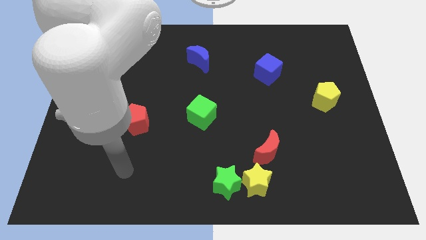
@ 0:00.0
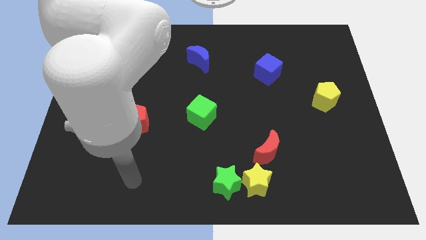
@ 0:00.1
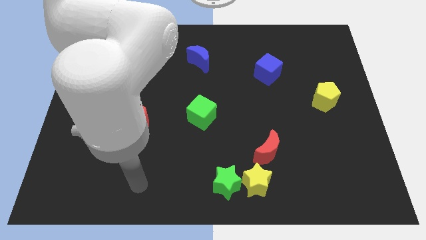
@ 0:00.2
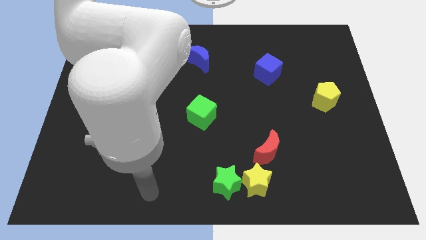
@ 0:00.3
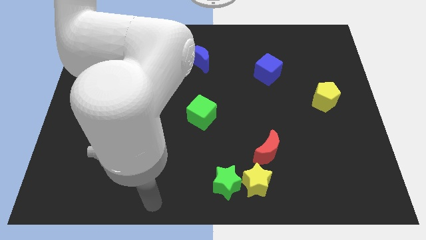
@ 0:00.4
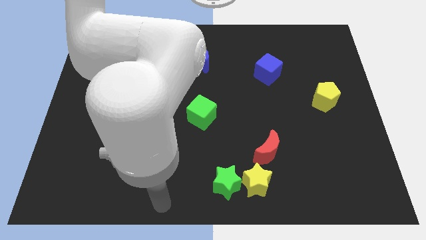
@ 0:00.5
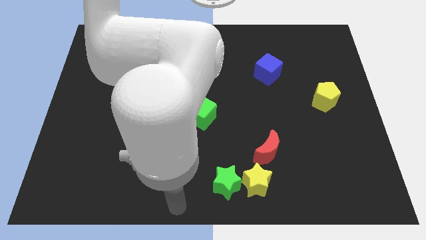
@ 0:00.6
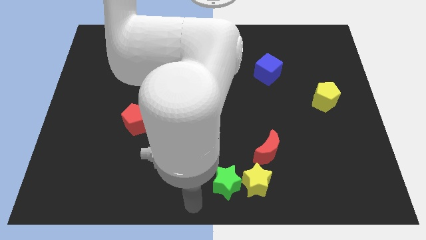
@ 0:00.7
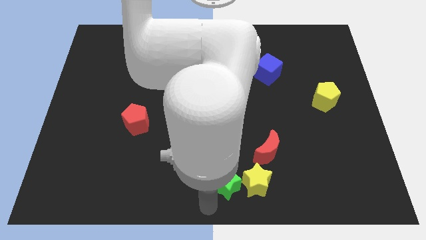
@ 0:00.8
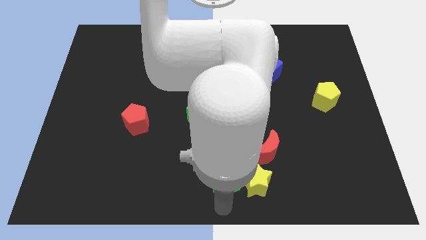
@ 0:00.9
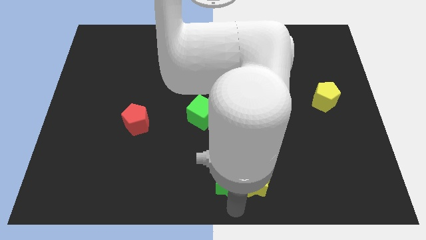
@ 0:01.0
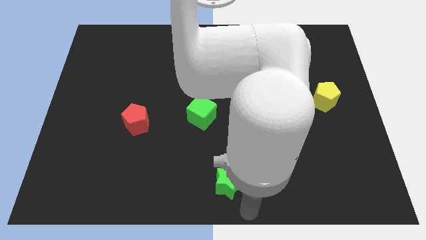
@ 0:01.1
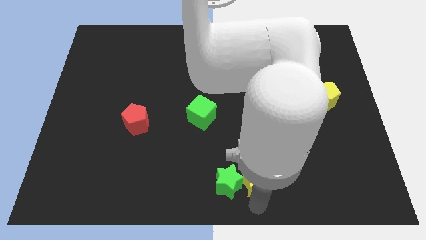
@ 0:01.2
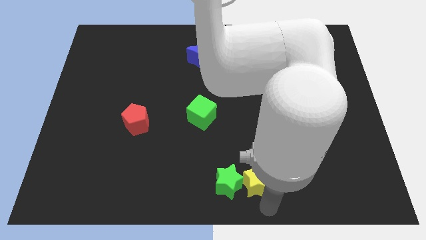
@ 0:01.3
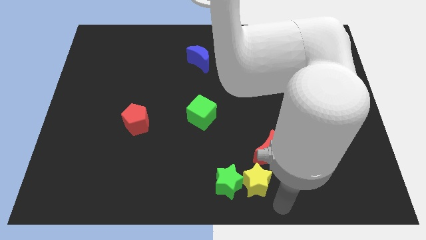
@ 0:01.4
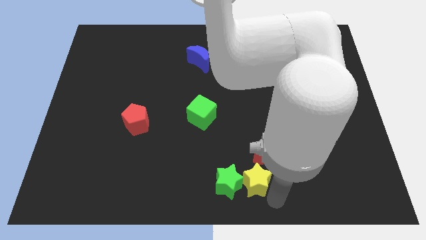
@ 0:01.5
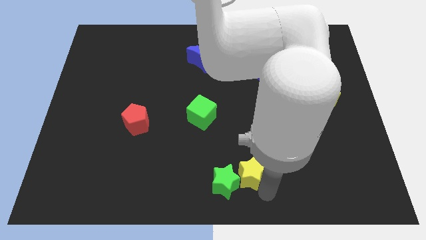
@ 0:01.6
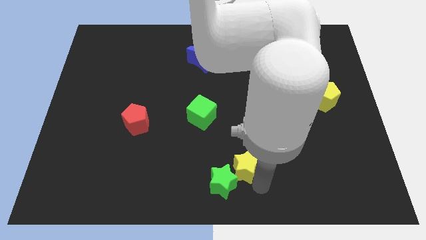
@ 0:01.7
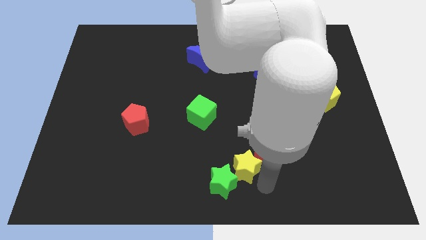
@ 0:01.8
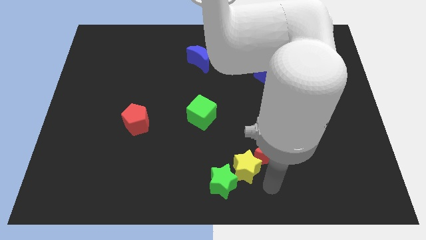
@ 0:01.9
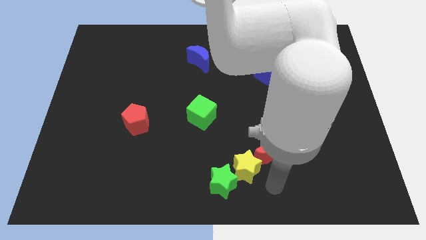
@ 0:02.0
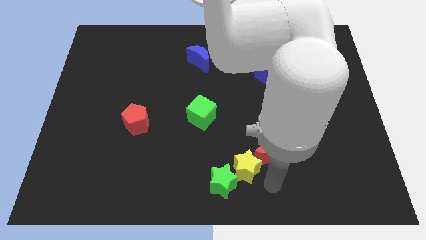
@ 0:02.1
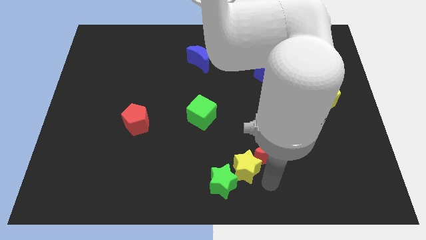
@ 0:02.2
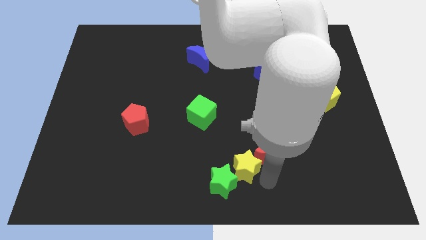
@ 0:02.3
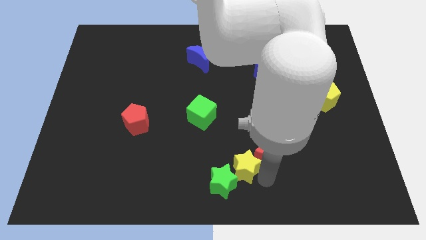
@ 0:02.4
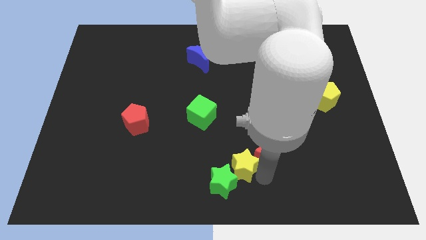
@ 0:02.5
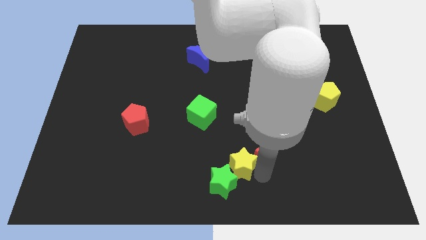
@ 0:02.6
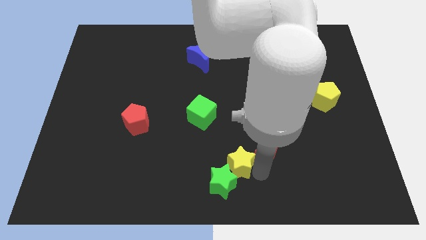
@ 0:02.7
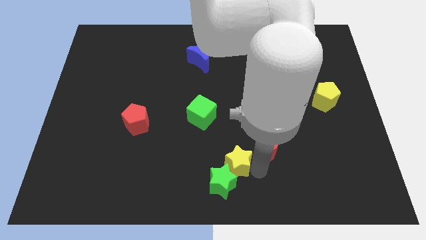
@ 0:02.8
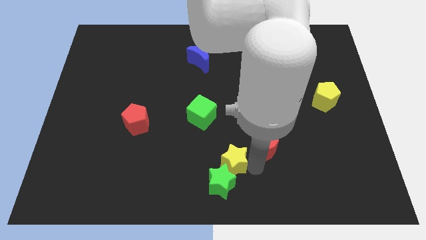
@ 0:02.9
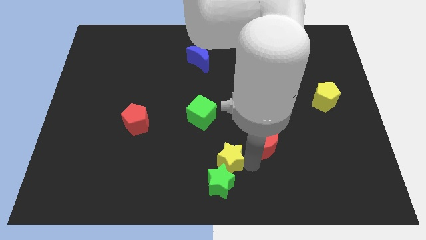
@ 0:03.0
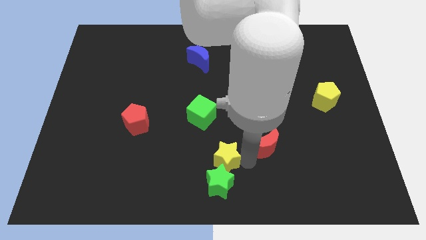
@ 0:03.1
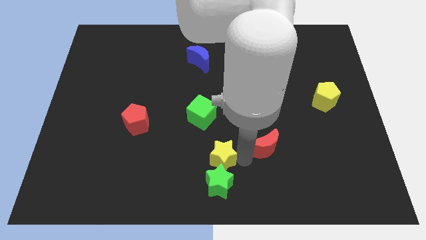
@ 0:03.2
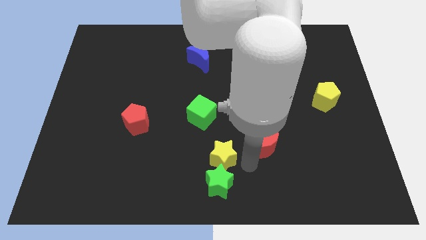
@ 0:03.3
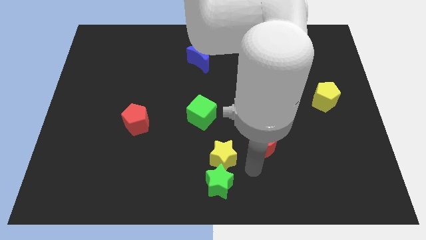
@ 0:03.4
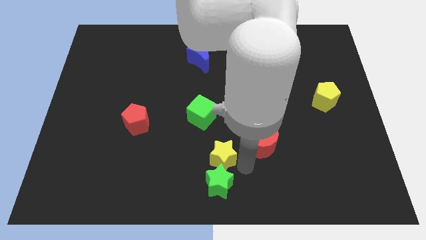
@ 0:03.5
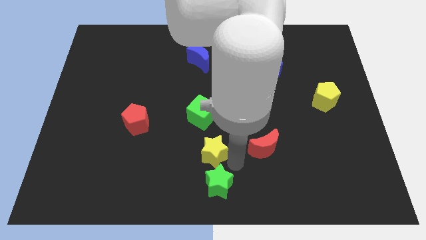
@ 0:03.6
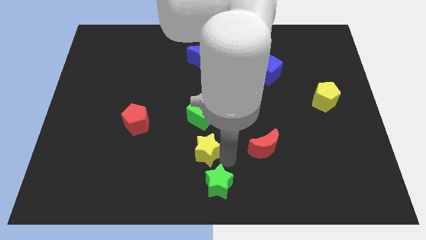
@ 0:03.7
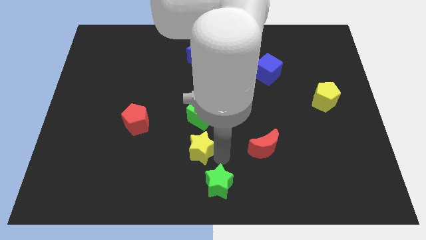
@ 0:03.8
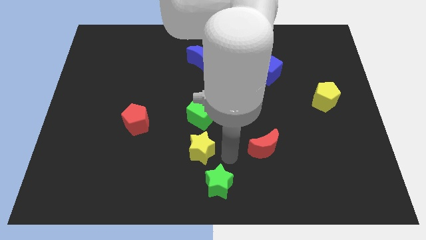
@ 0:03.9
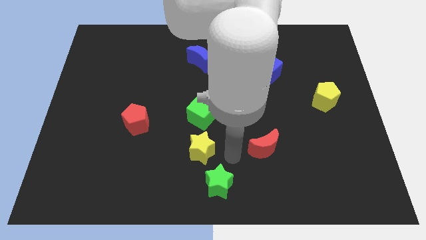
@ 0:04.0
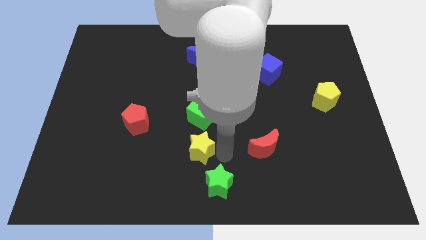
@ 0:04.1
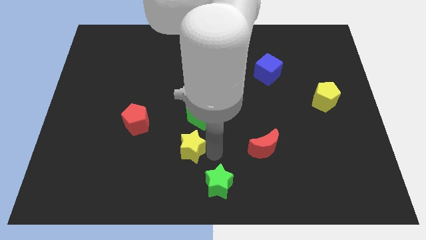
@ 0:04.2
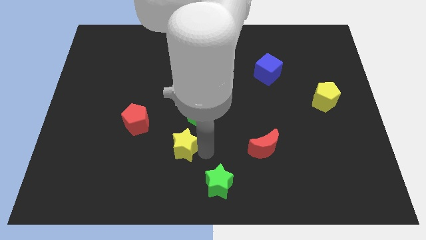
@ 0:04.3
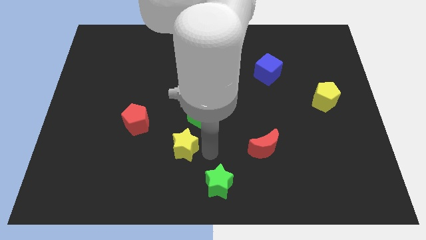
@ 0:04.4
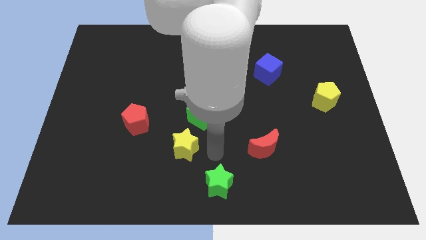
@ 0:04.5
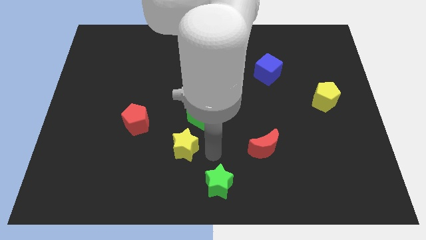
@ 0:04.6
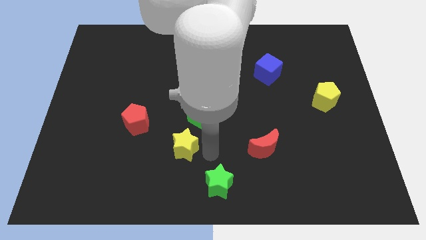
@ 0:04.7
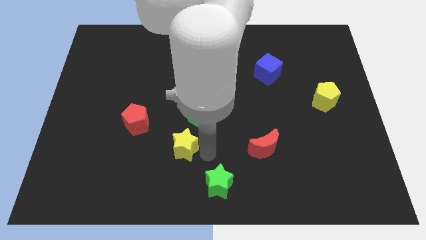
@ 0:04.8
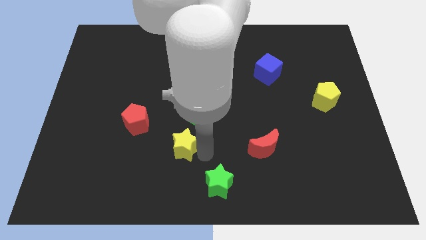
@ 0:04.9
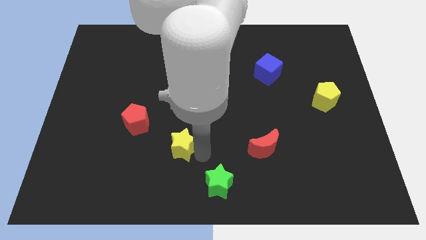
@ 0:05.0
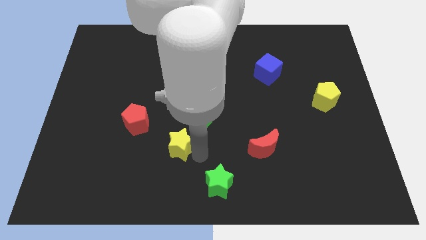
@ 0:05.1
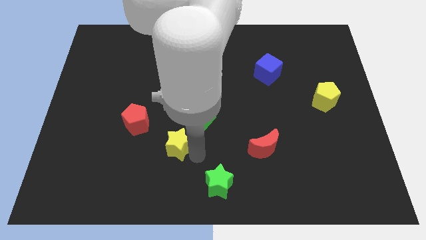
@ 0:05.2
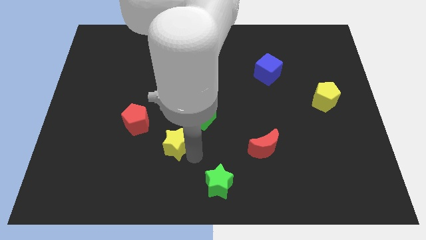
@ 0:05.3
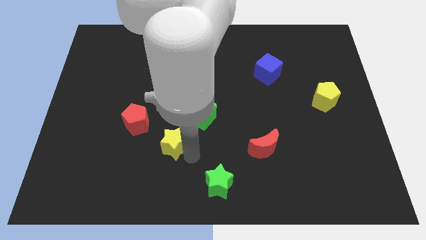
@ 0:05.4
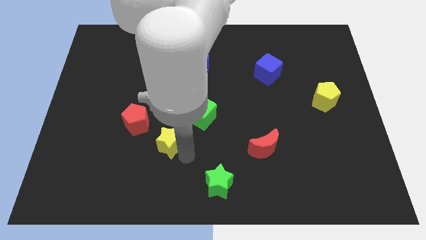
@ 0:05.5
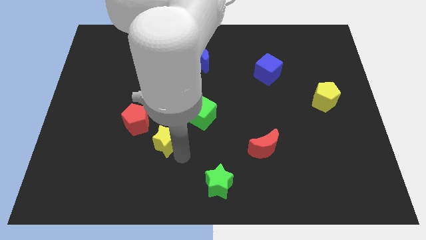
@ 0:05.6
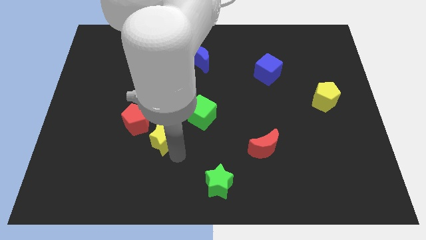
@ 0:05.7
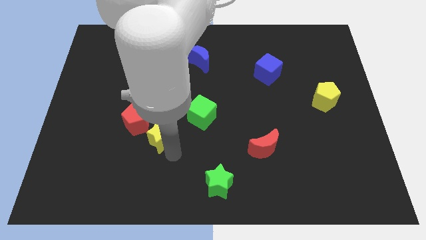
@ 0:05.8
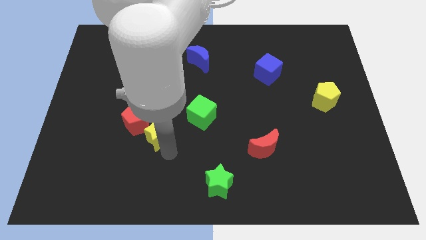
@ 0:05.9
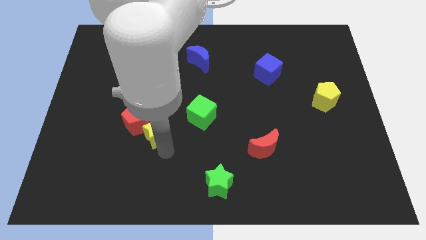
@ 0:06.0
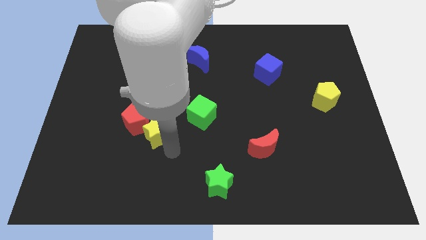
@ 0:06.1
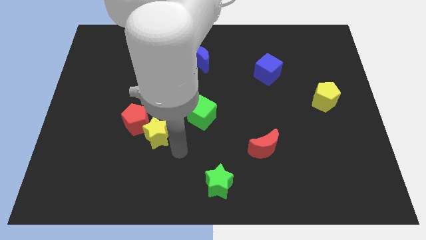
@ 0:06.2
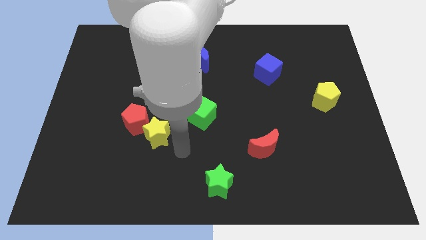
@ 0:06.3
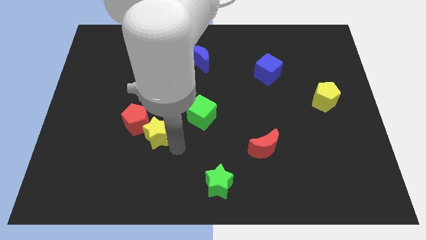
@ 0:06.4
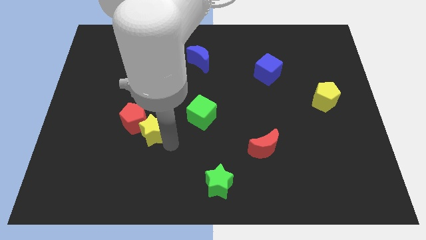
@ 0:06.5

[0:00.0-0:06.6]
put the yellow star towards the red pentagon
